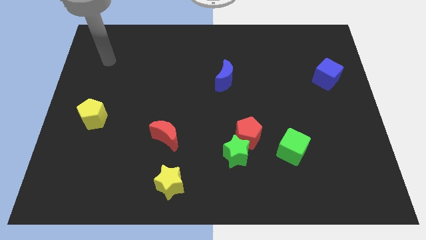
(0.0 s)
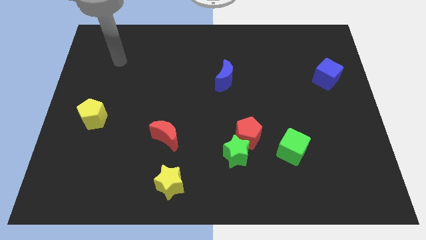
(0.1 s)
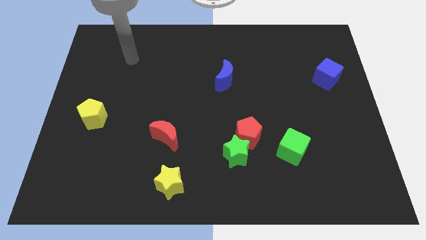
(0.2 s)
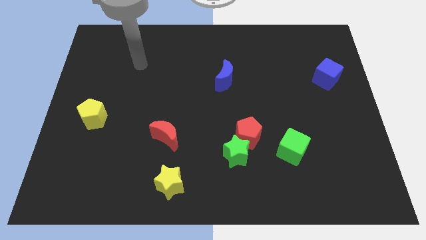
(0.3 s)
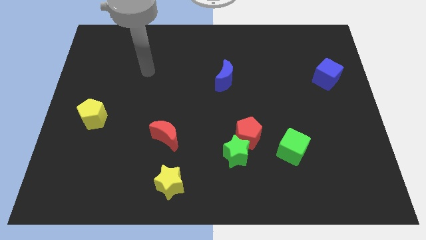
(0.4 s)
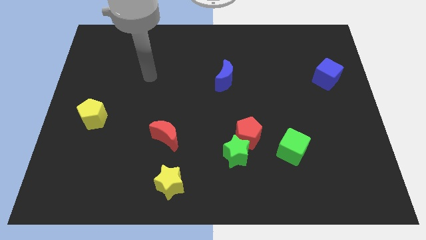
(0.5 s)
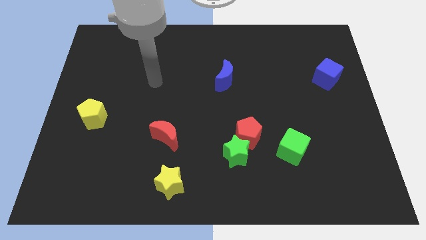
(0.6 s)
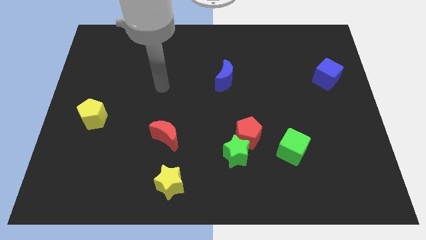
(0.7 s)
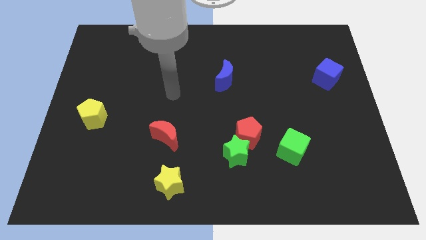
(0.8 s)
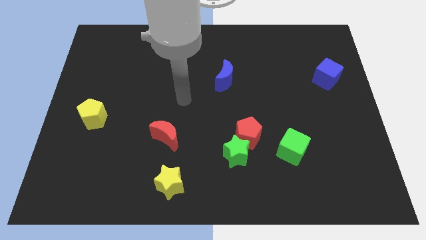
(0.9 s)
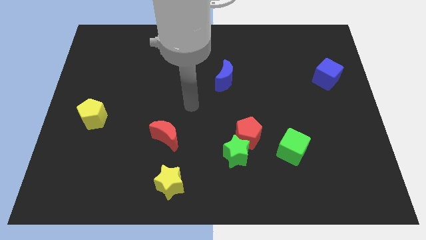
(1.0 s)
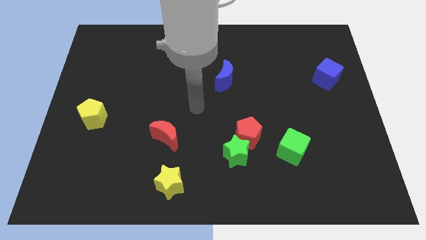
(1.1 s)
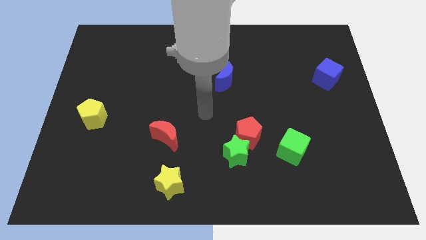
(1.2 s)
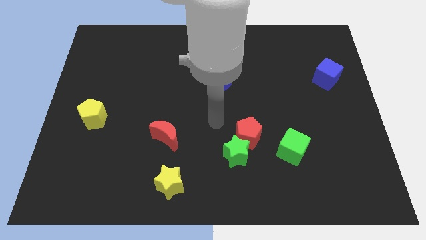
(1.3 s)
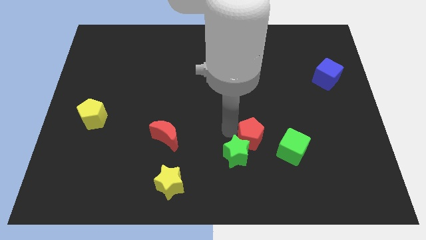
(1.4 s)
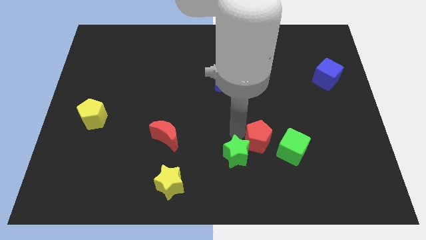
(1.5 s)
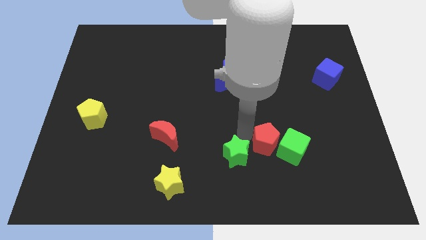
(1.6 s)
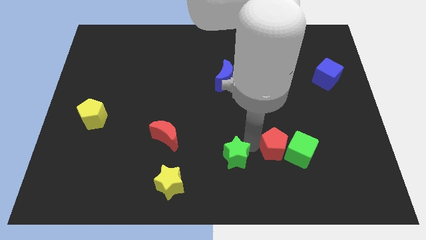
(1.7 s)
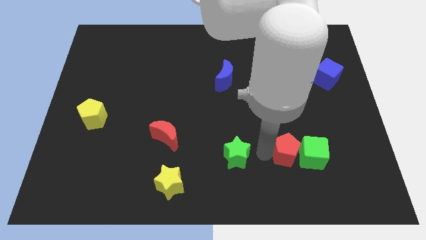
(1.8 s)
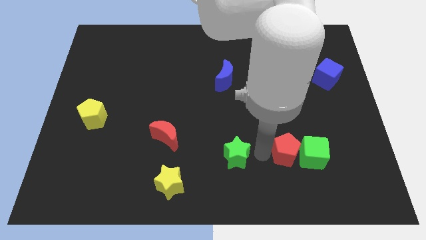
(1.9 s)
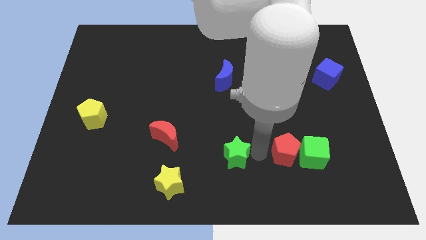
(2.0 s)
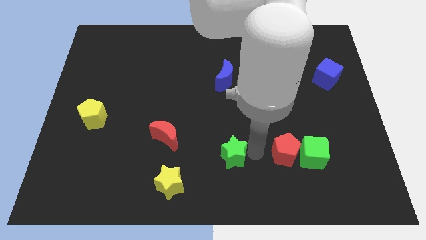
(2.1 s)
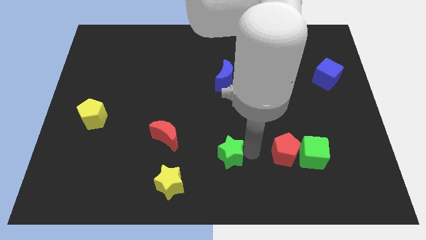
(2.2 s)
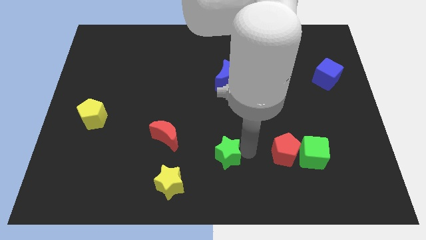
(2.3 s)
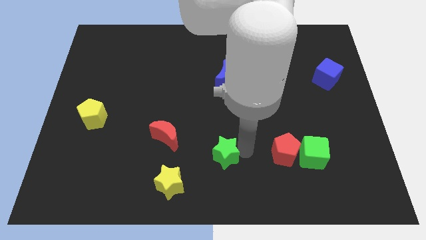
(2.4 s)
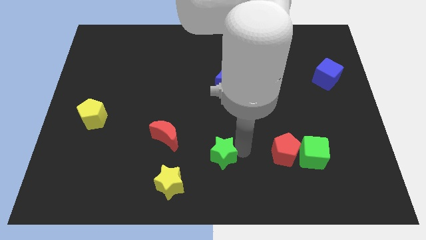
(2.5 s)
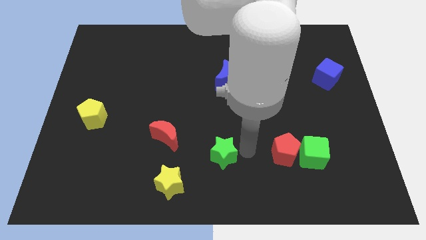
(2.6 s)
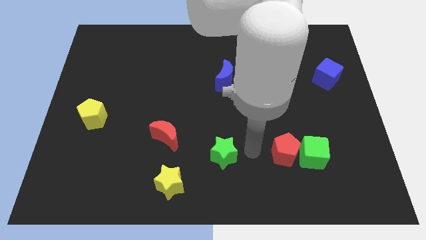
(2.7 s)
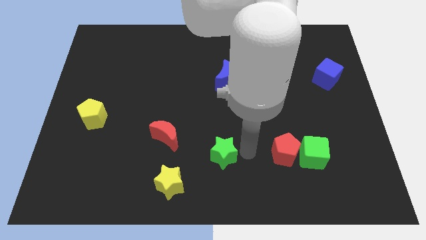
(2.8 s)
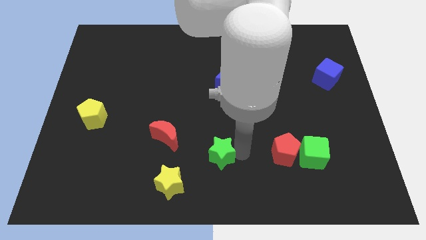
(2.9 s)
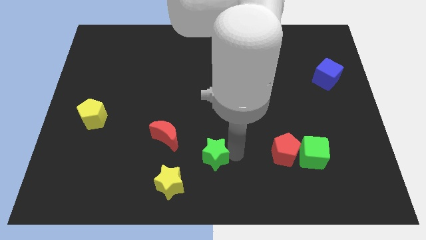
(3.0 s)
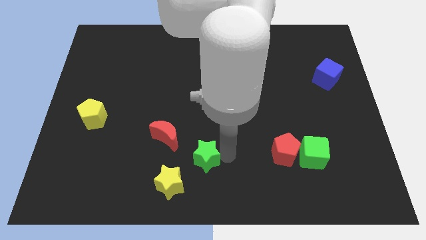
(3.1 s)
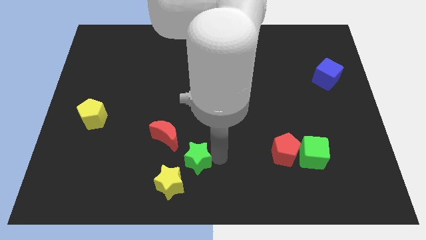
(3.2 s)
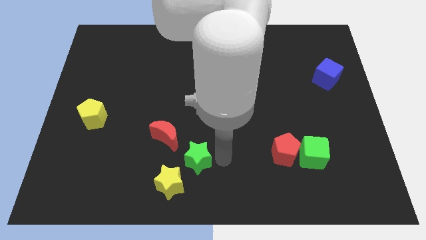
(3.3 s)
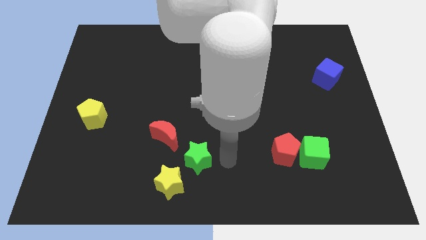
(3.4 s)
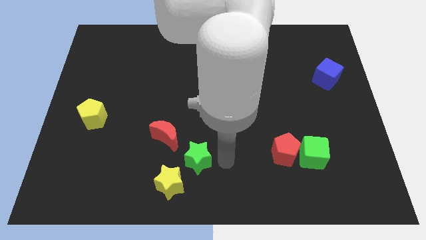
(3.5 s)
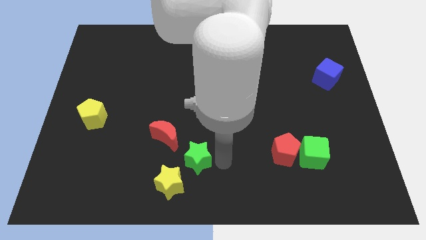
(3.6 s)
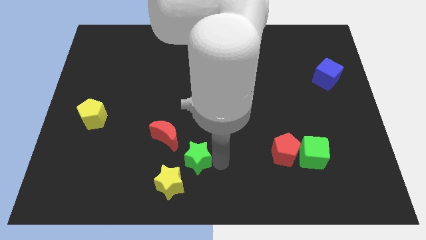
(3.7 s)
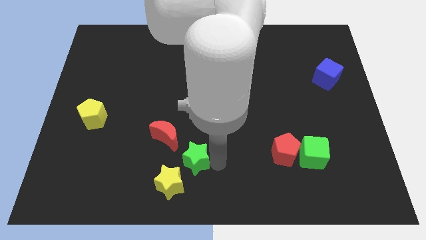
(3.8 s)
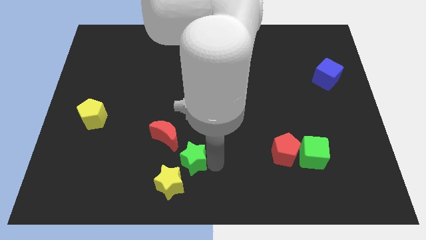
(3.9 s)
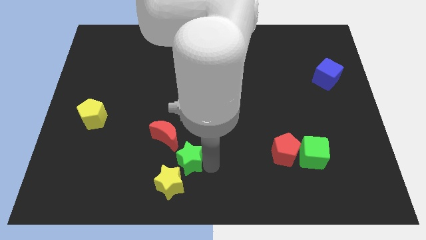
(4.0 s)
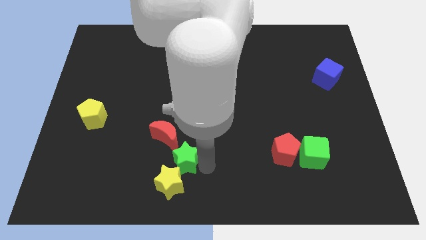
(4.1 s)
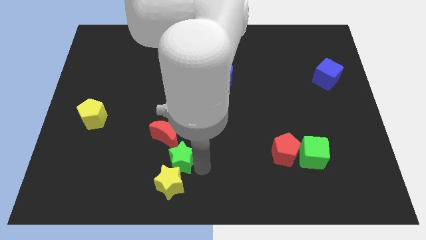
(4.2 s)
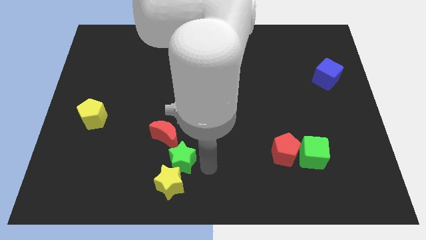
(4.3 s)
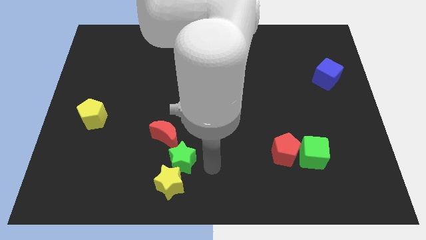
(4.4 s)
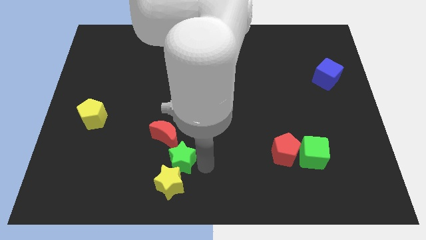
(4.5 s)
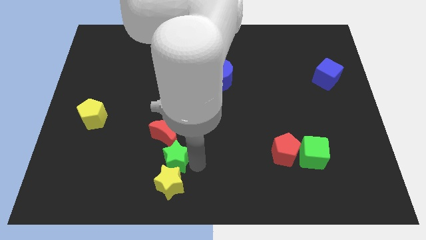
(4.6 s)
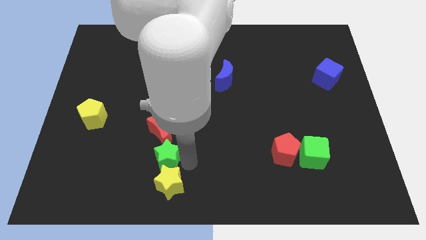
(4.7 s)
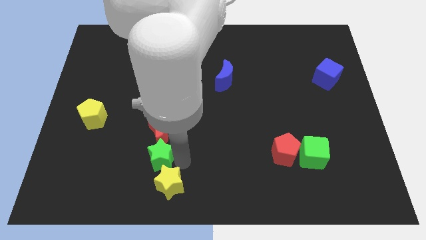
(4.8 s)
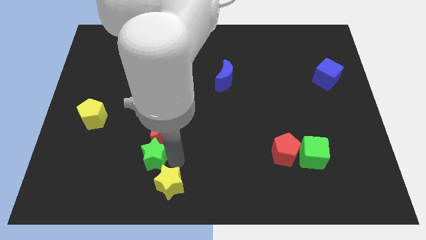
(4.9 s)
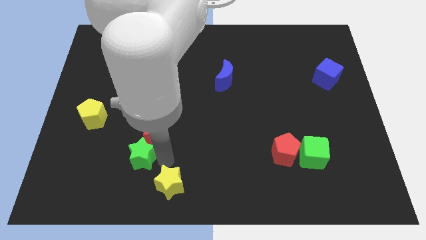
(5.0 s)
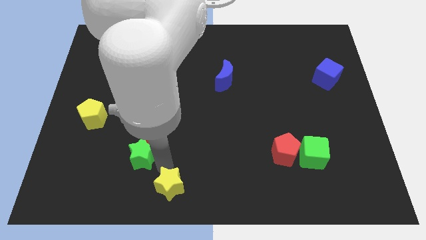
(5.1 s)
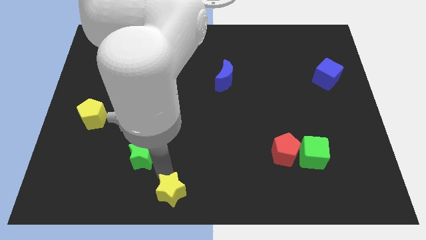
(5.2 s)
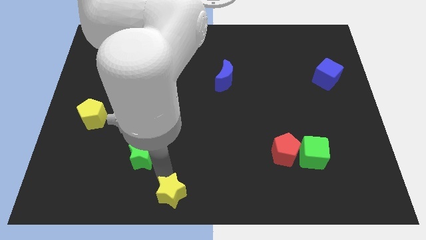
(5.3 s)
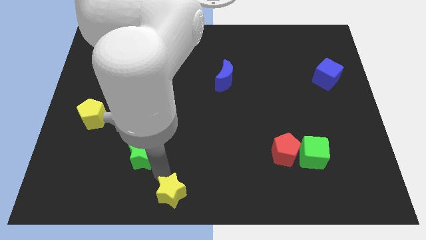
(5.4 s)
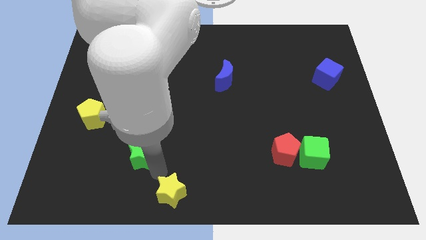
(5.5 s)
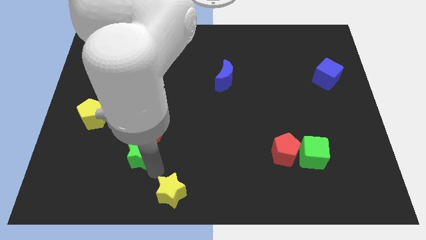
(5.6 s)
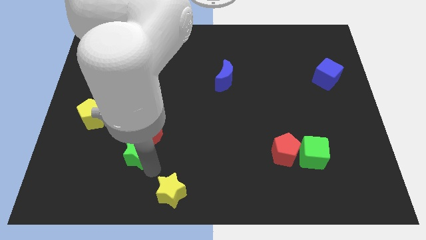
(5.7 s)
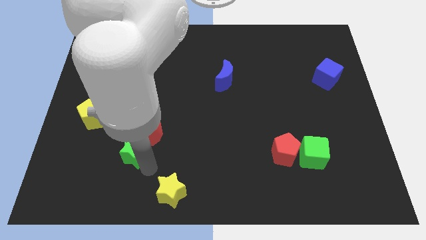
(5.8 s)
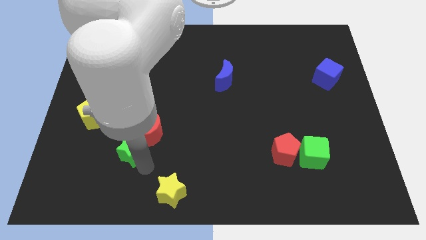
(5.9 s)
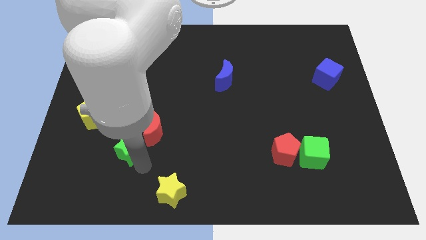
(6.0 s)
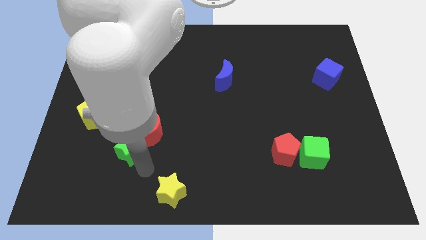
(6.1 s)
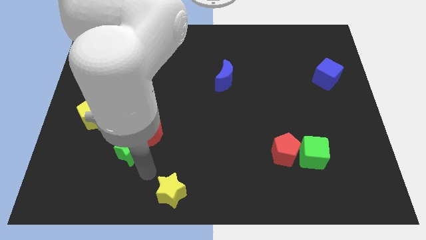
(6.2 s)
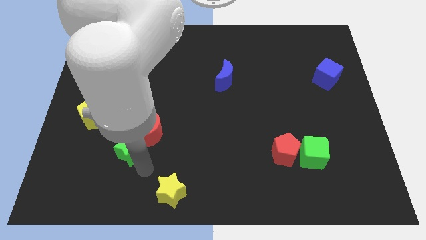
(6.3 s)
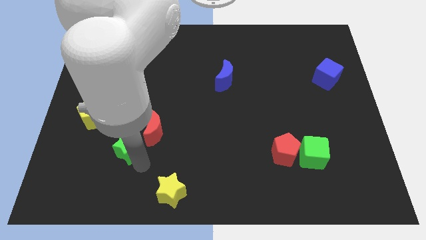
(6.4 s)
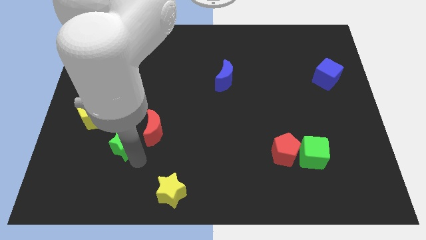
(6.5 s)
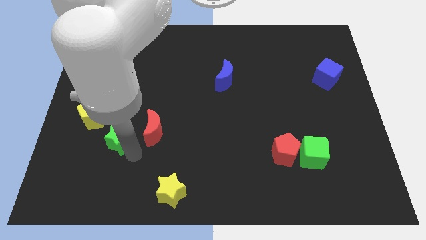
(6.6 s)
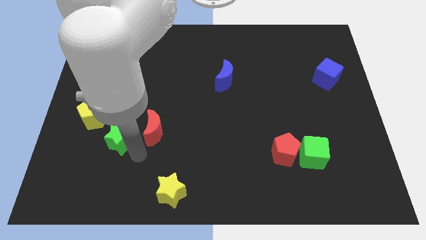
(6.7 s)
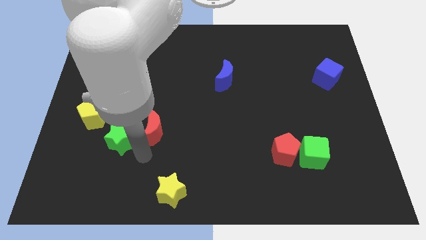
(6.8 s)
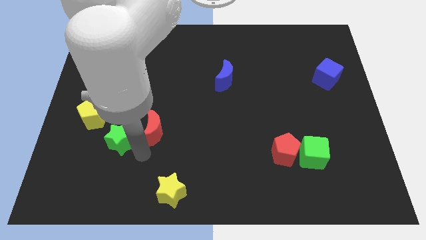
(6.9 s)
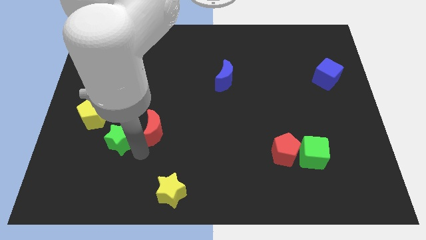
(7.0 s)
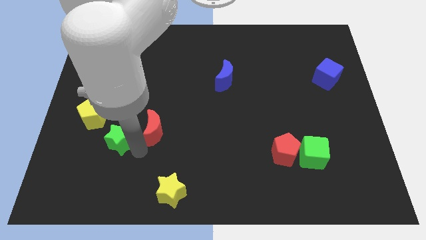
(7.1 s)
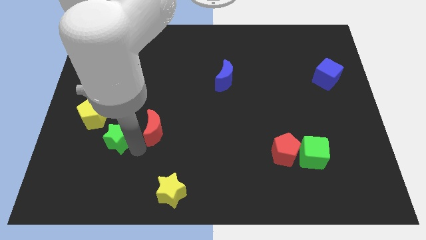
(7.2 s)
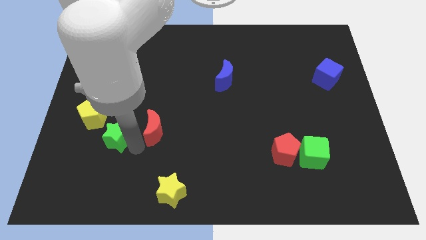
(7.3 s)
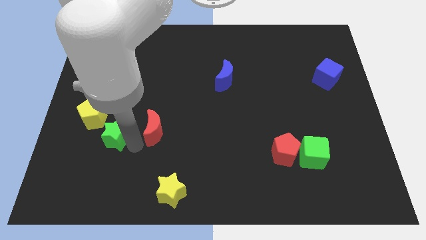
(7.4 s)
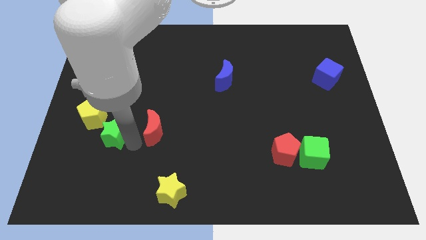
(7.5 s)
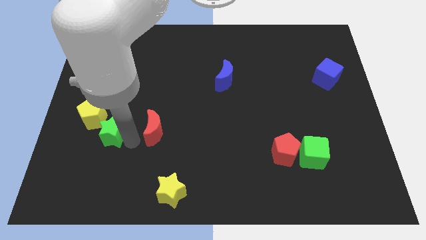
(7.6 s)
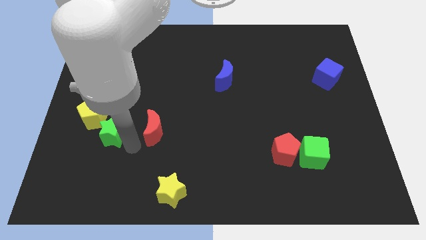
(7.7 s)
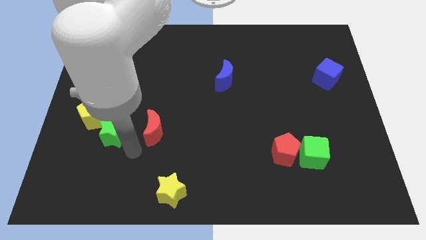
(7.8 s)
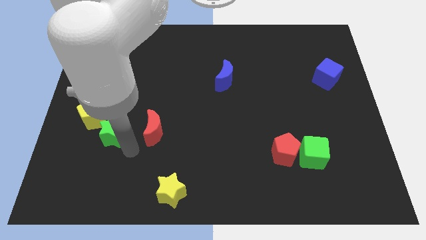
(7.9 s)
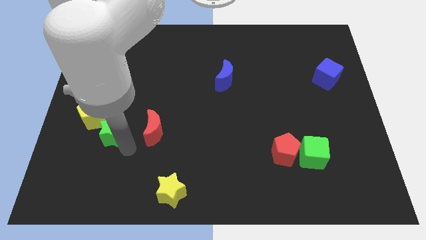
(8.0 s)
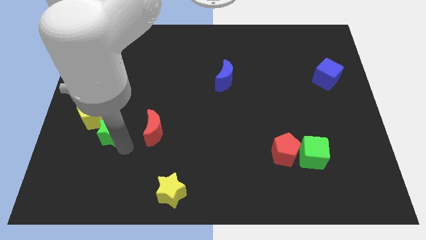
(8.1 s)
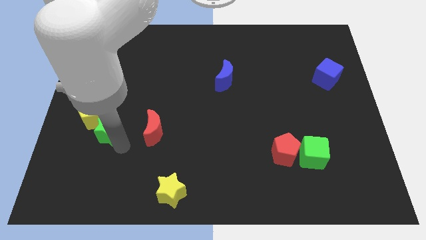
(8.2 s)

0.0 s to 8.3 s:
slide the green star to the yellow pentagon
